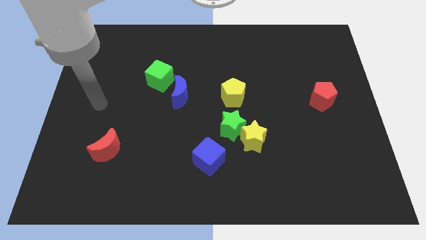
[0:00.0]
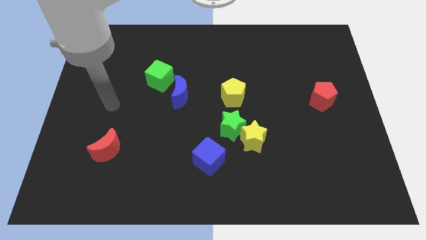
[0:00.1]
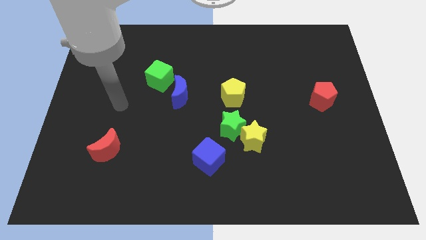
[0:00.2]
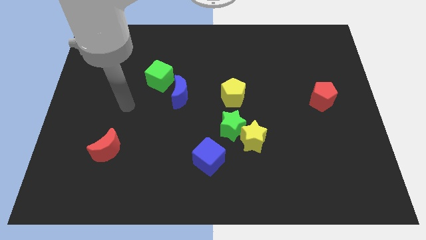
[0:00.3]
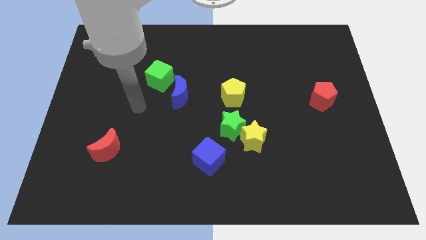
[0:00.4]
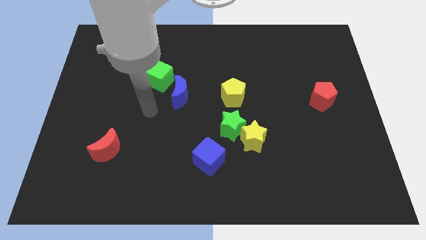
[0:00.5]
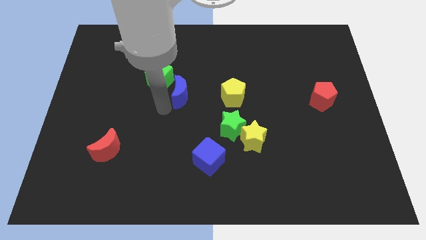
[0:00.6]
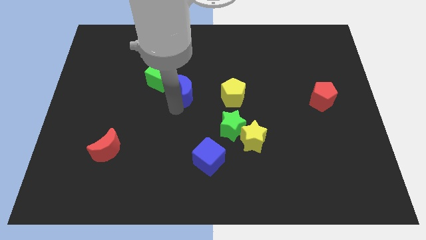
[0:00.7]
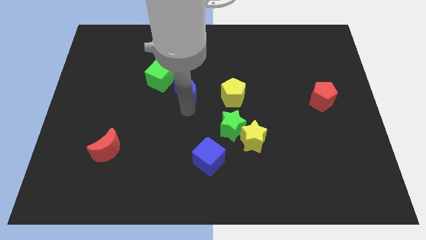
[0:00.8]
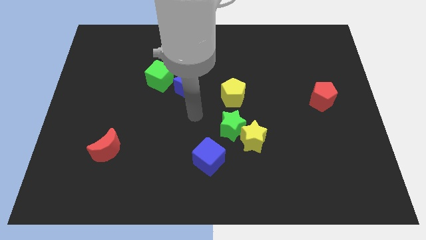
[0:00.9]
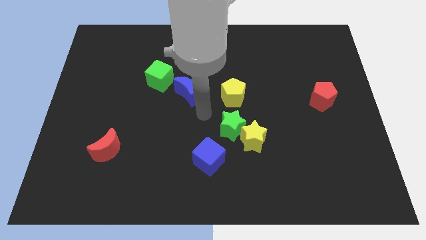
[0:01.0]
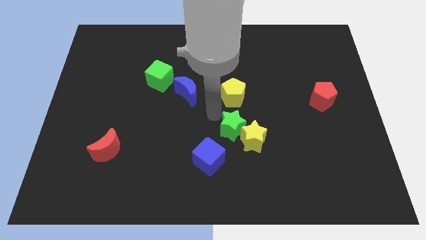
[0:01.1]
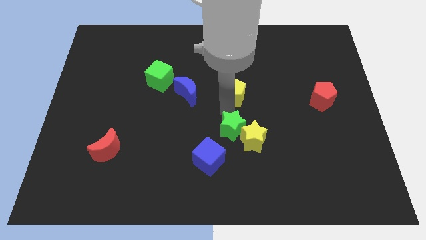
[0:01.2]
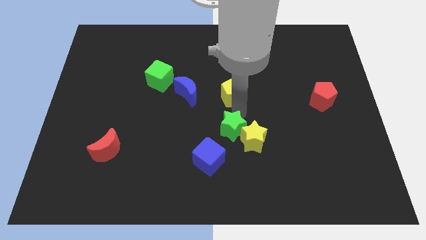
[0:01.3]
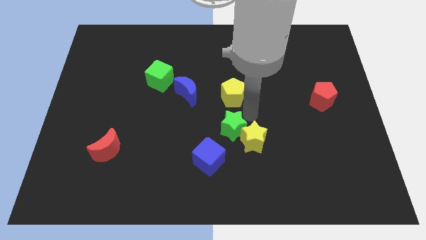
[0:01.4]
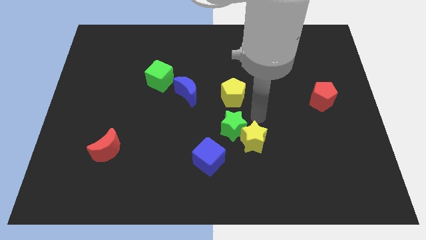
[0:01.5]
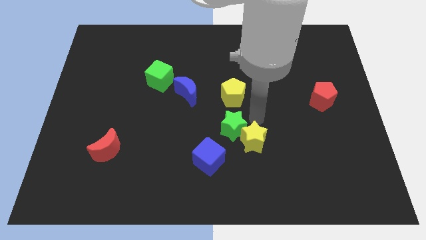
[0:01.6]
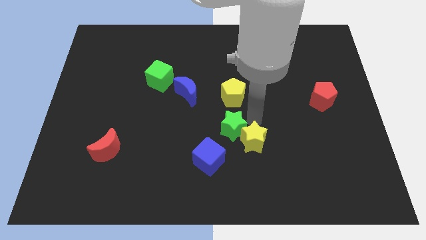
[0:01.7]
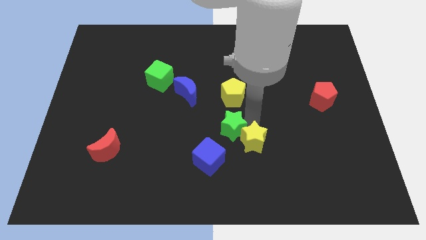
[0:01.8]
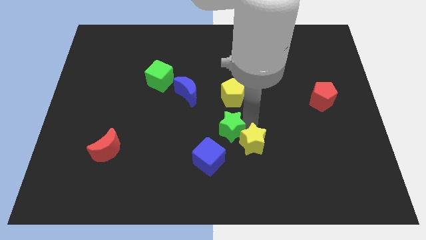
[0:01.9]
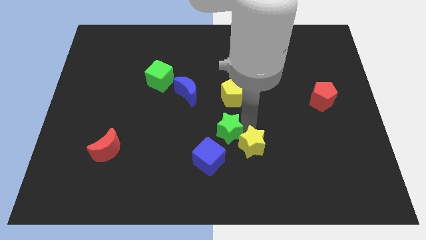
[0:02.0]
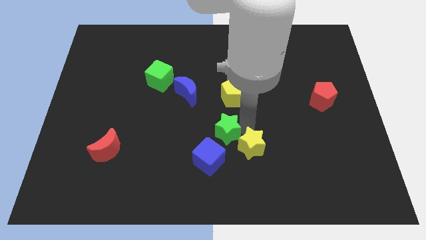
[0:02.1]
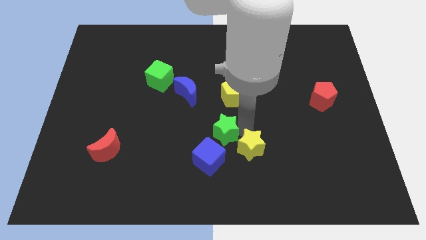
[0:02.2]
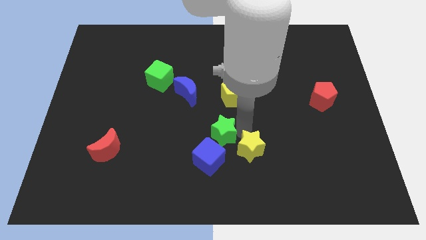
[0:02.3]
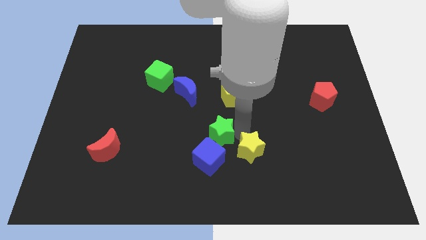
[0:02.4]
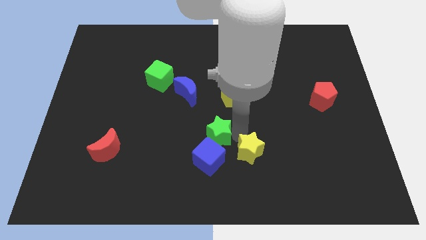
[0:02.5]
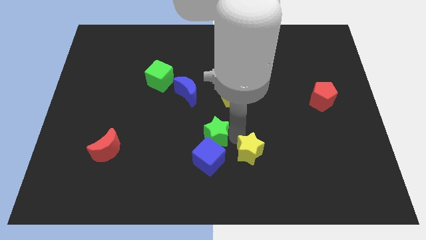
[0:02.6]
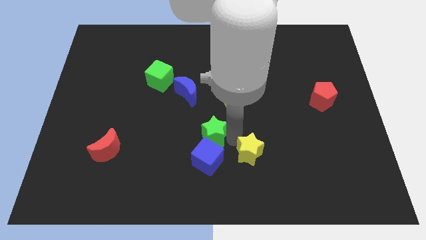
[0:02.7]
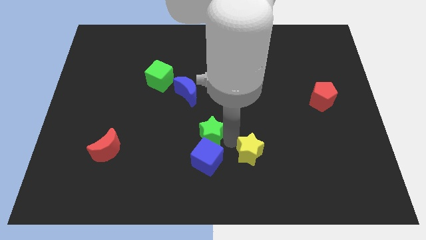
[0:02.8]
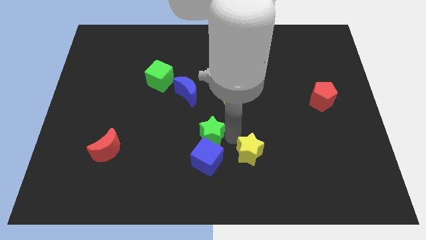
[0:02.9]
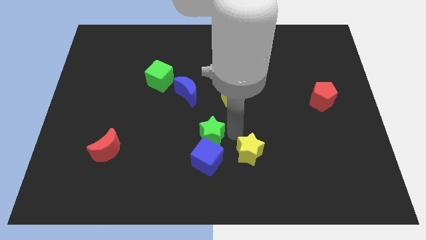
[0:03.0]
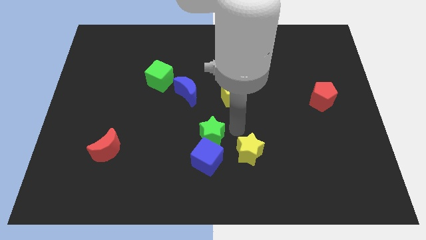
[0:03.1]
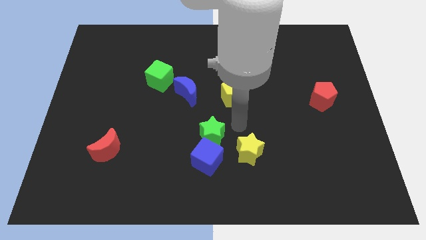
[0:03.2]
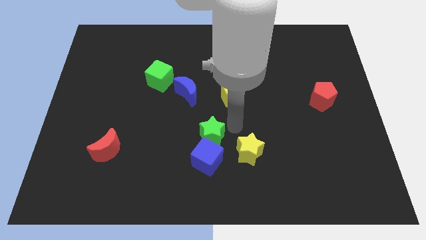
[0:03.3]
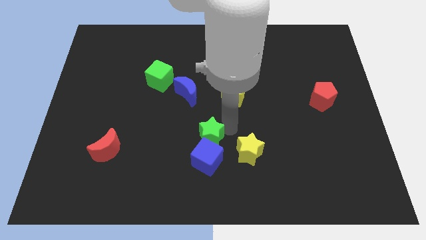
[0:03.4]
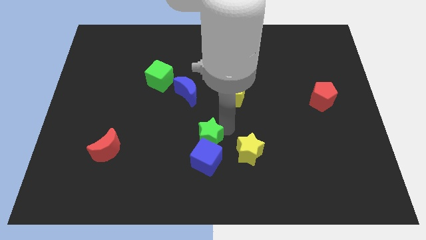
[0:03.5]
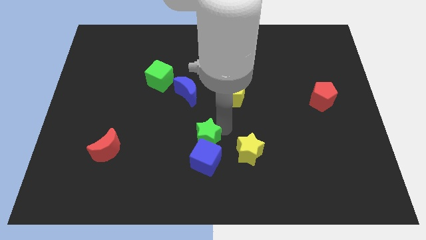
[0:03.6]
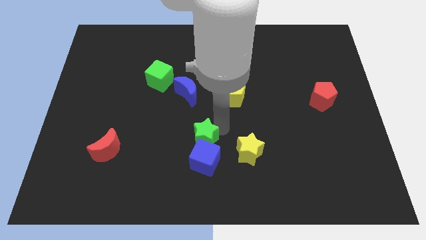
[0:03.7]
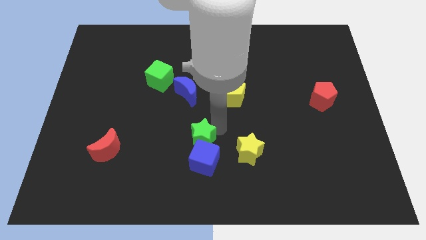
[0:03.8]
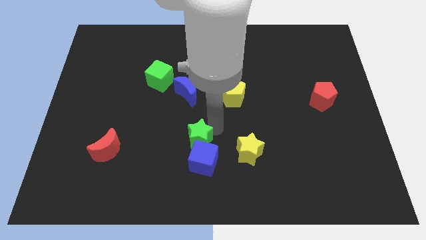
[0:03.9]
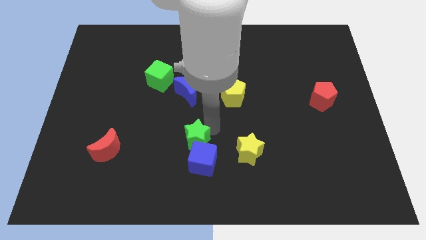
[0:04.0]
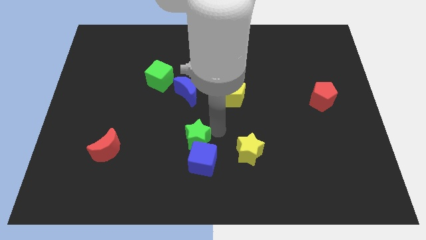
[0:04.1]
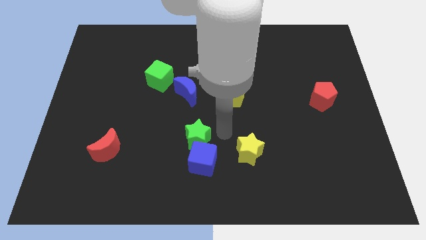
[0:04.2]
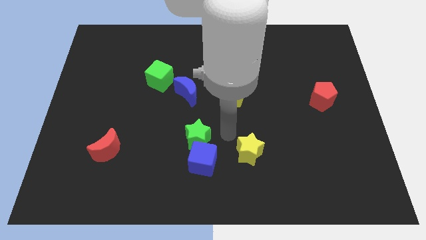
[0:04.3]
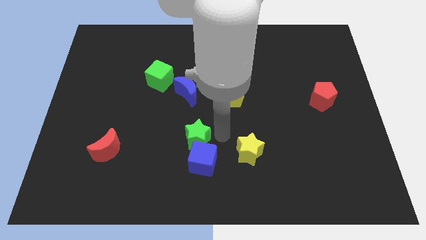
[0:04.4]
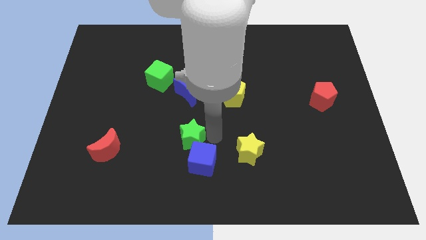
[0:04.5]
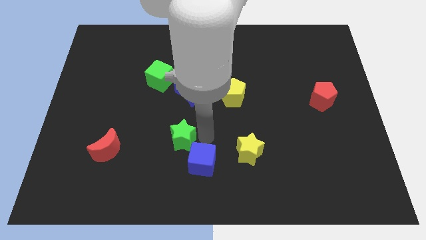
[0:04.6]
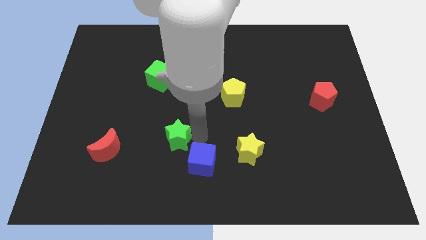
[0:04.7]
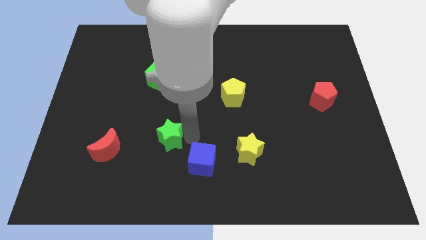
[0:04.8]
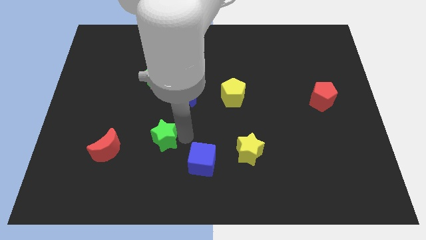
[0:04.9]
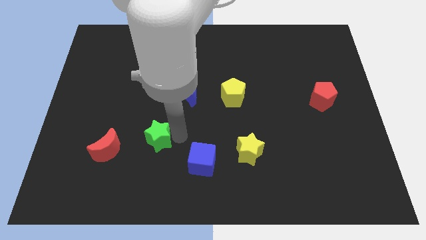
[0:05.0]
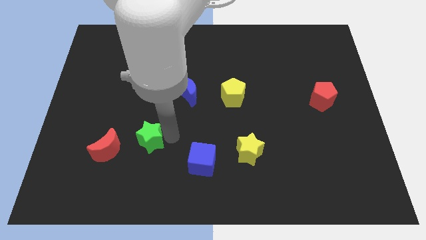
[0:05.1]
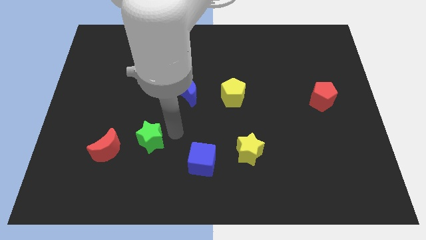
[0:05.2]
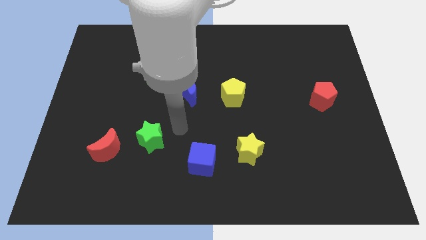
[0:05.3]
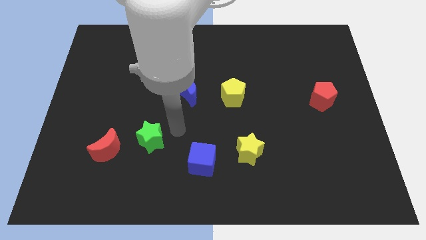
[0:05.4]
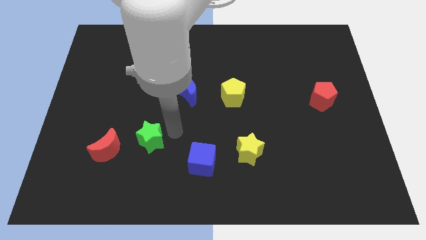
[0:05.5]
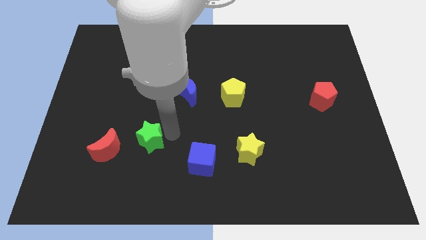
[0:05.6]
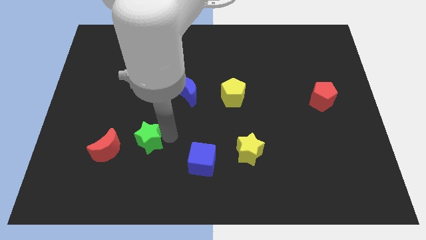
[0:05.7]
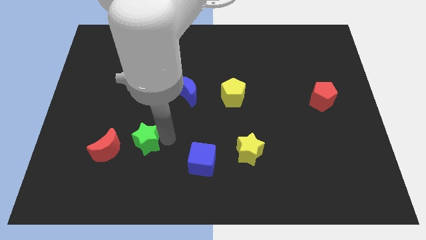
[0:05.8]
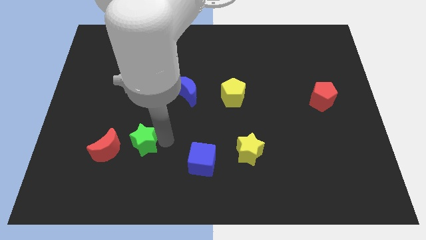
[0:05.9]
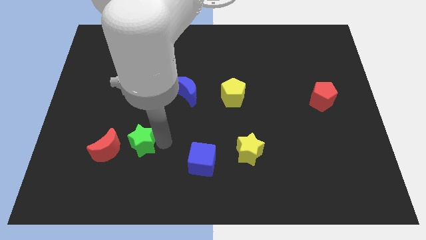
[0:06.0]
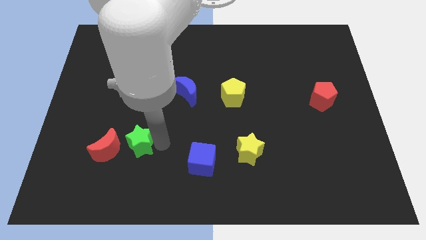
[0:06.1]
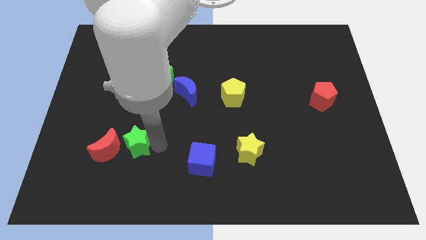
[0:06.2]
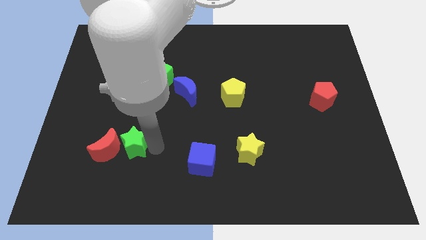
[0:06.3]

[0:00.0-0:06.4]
push the green star close to the red moon

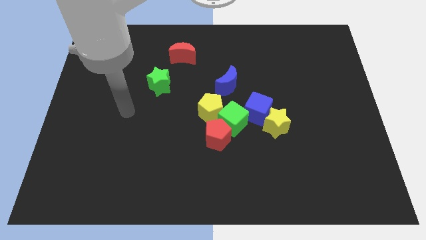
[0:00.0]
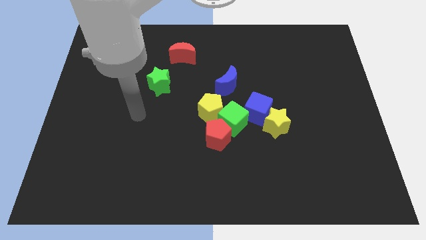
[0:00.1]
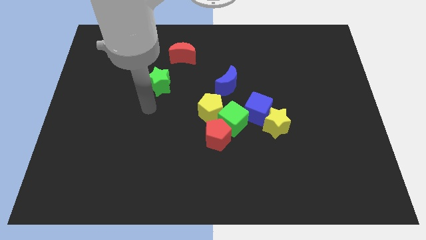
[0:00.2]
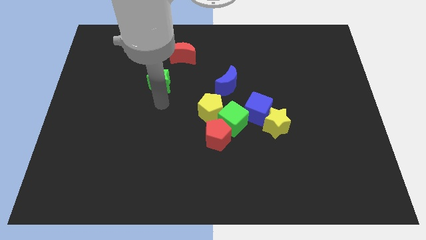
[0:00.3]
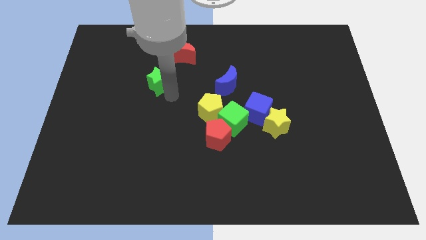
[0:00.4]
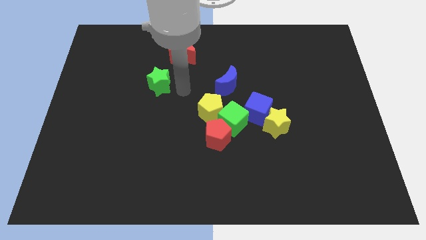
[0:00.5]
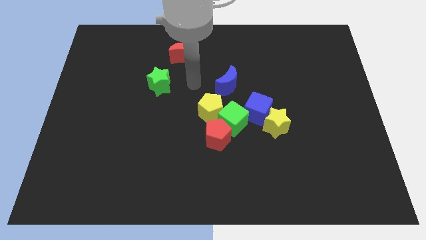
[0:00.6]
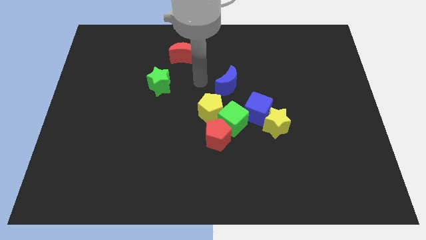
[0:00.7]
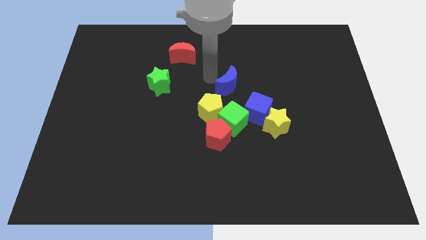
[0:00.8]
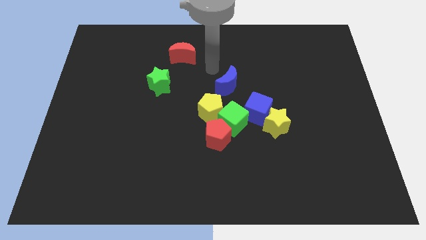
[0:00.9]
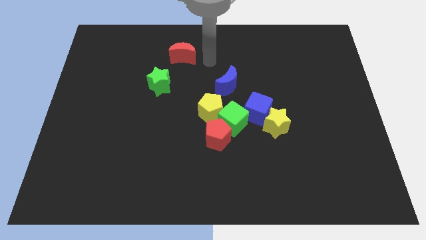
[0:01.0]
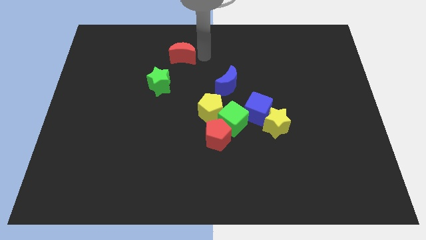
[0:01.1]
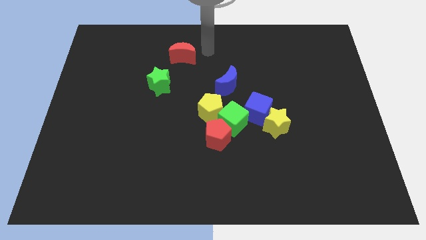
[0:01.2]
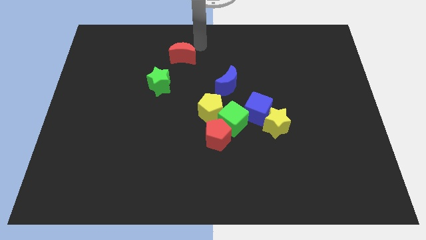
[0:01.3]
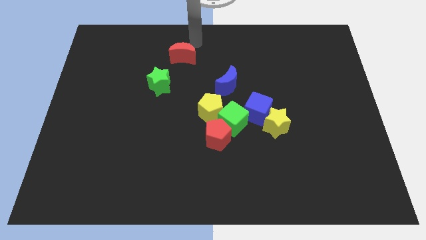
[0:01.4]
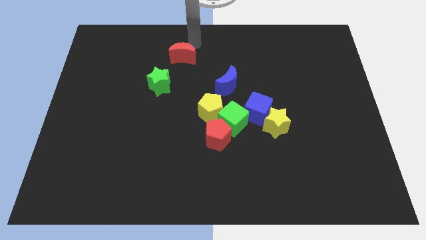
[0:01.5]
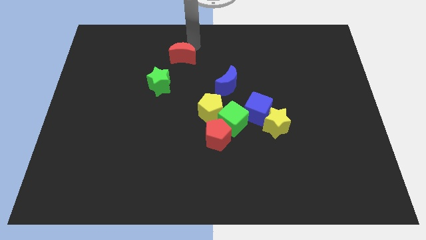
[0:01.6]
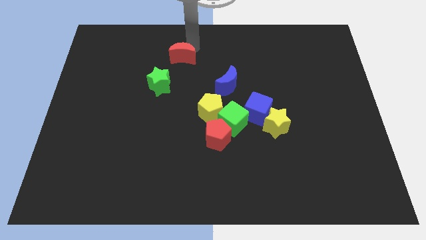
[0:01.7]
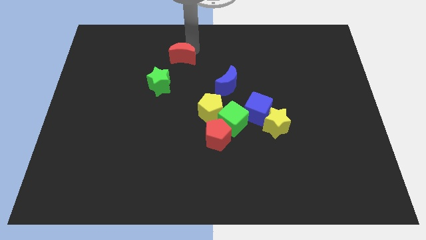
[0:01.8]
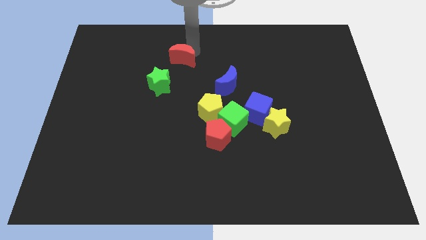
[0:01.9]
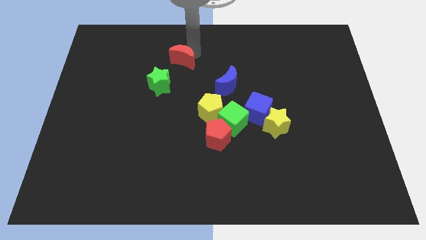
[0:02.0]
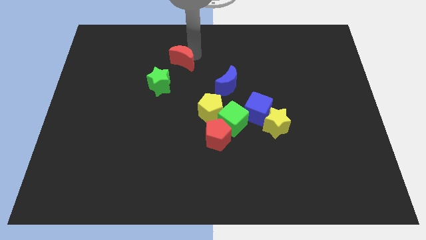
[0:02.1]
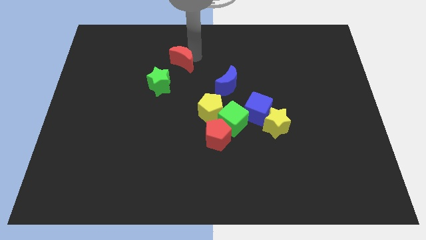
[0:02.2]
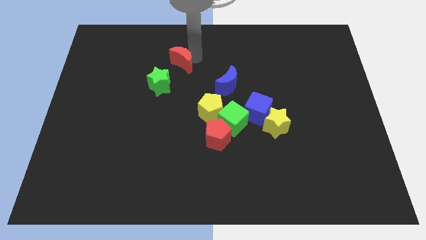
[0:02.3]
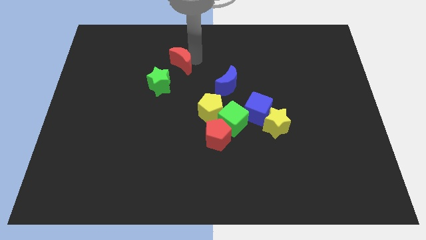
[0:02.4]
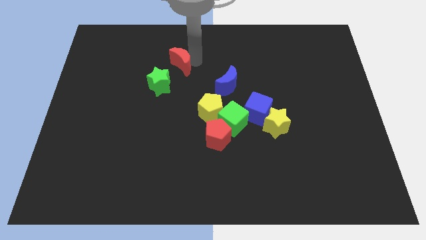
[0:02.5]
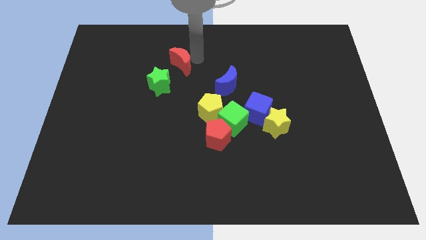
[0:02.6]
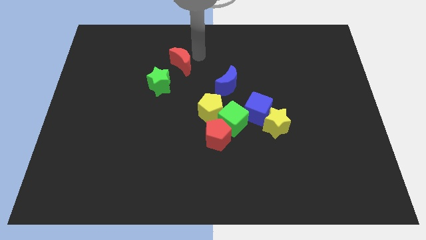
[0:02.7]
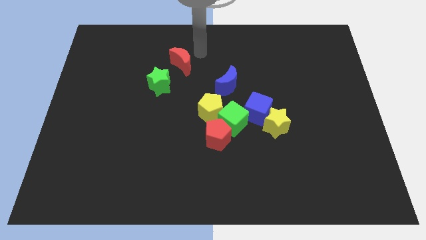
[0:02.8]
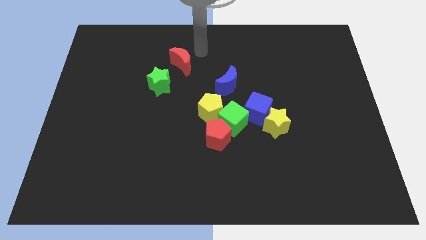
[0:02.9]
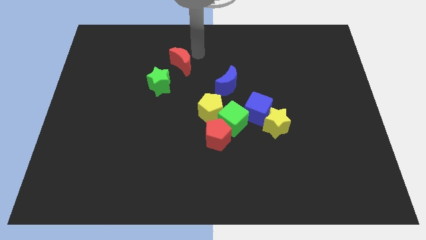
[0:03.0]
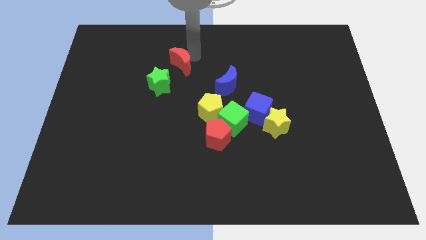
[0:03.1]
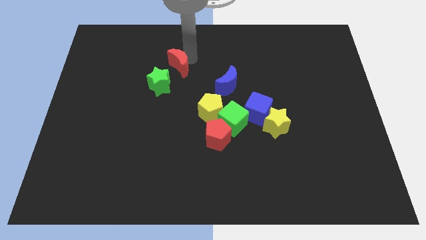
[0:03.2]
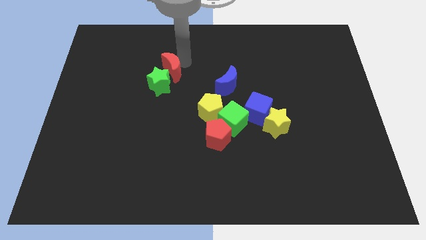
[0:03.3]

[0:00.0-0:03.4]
put the red moon next to the green star
